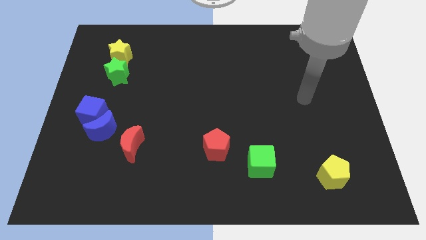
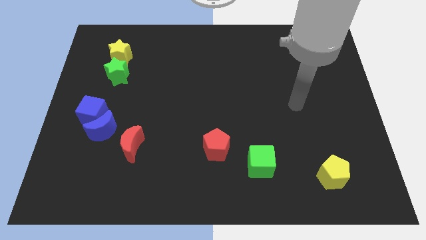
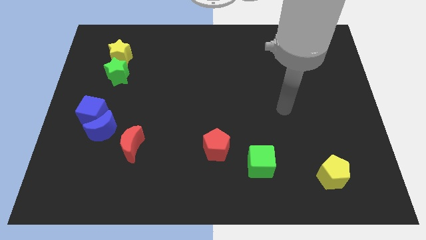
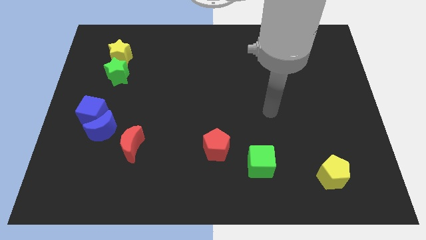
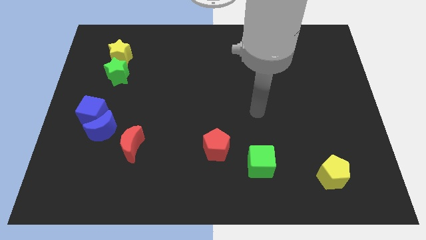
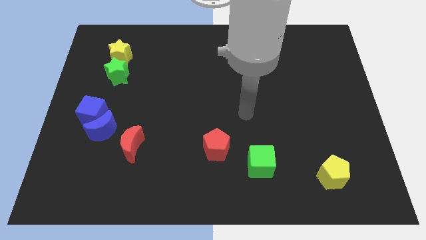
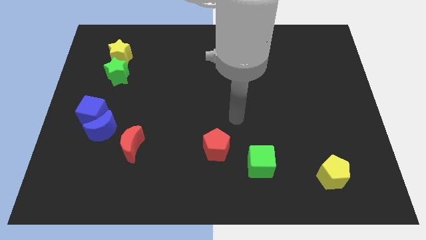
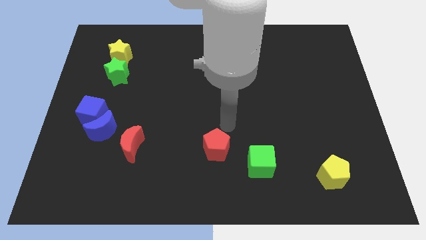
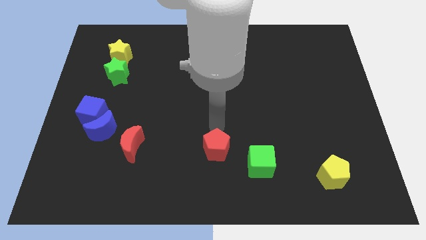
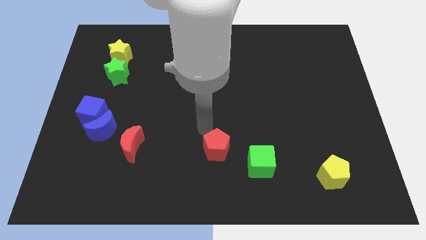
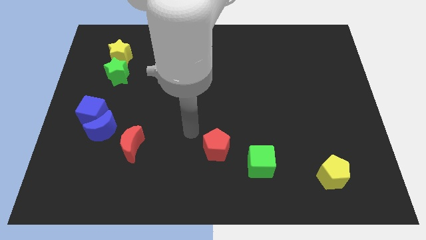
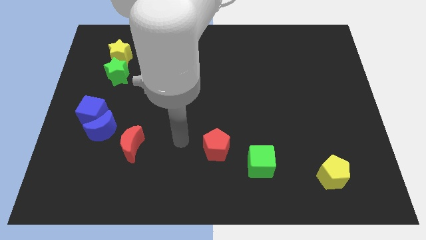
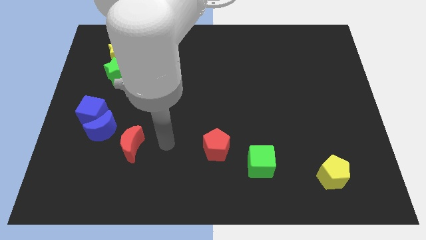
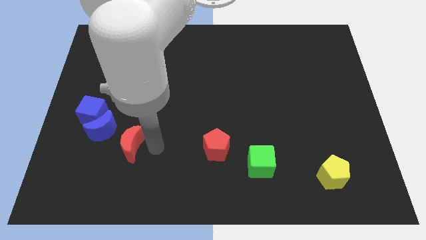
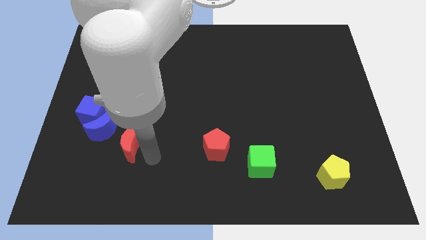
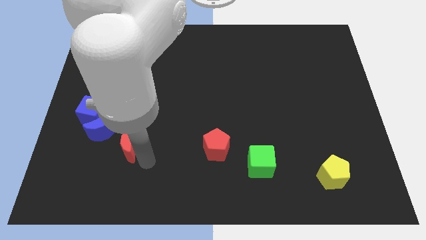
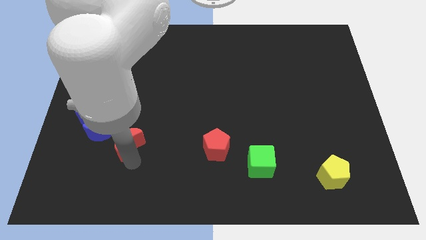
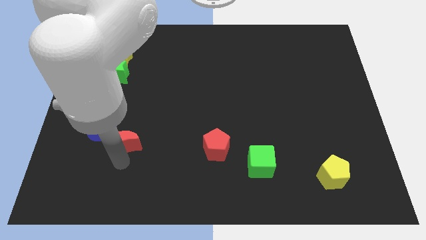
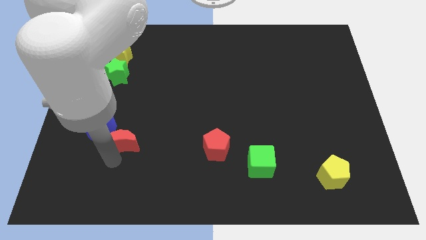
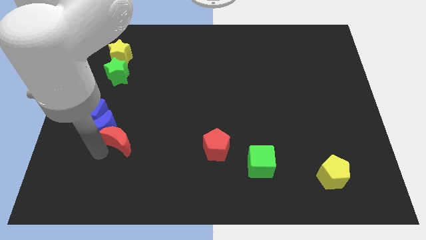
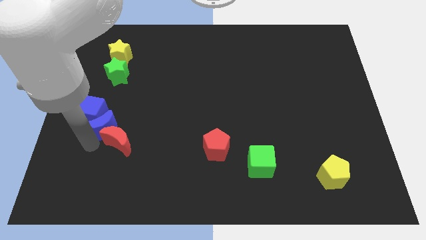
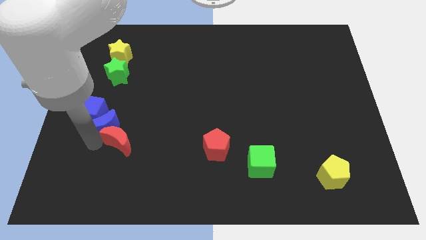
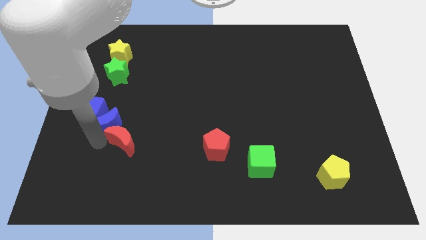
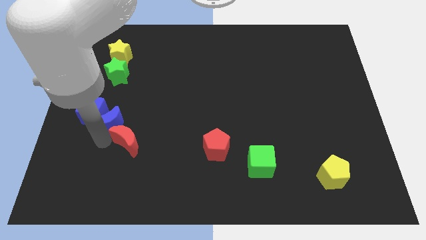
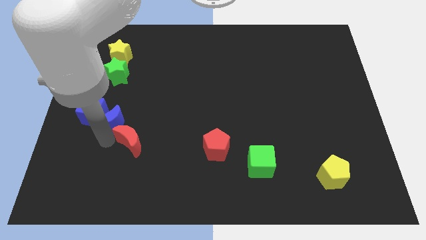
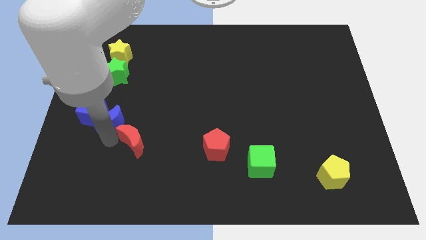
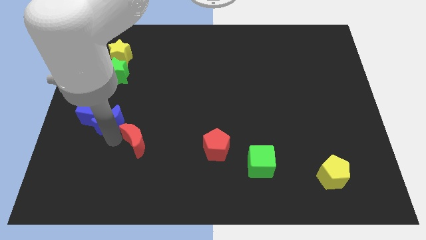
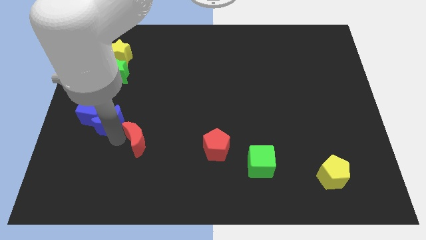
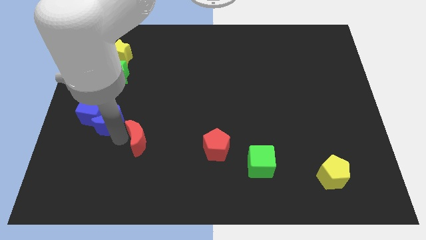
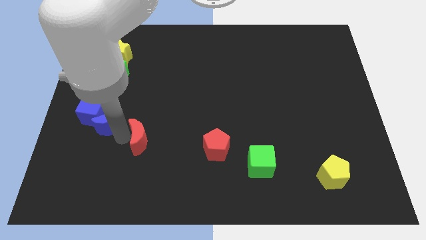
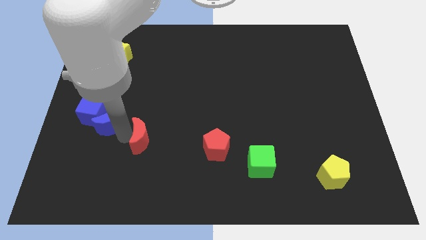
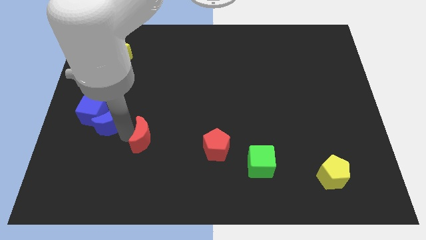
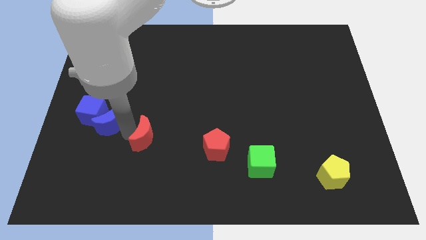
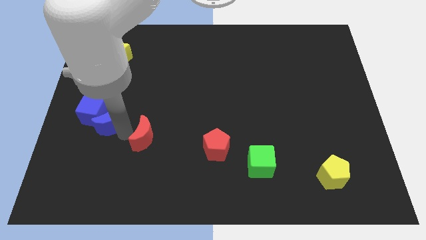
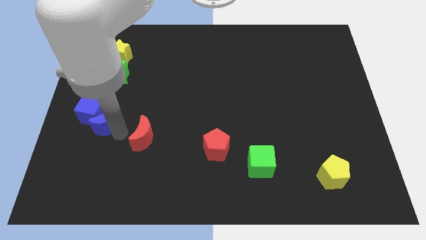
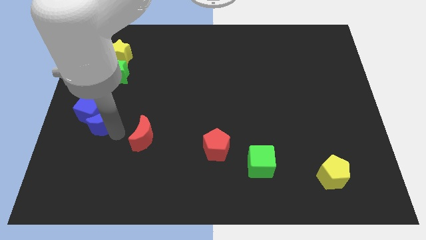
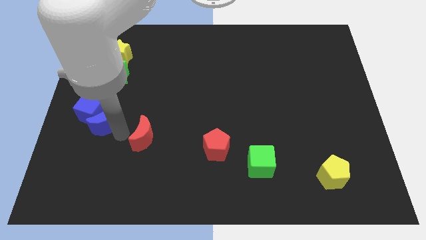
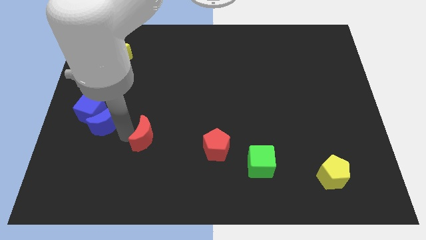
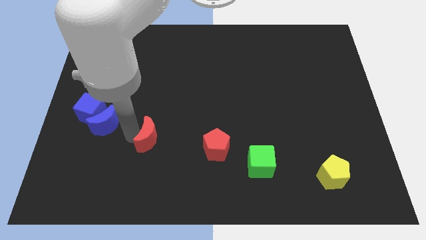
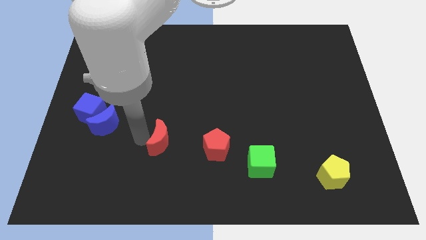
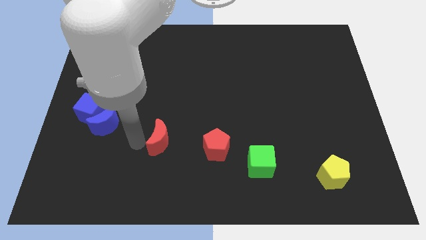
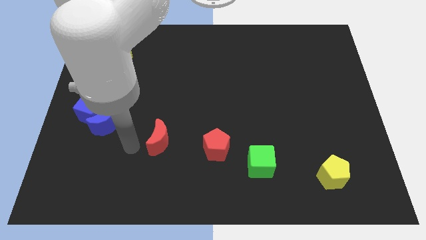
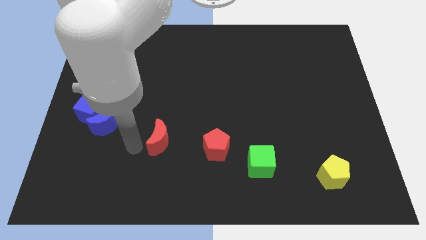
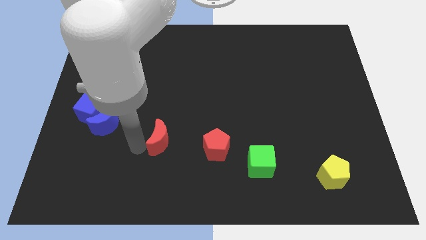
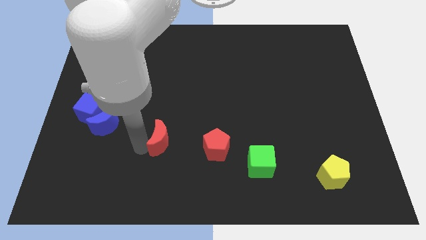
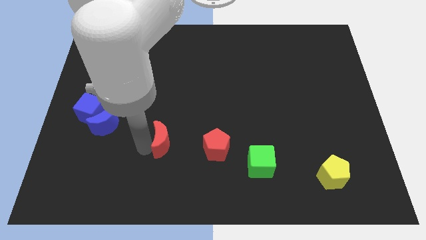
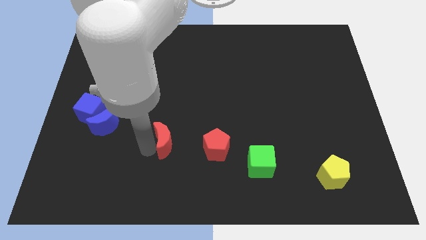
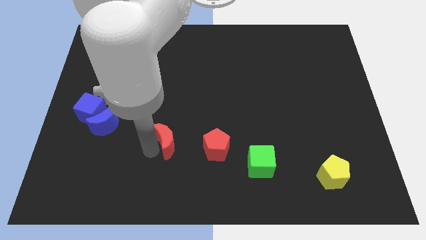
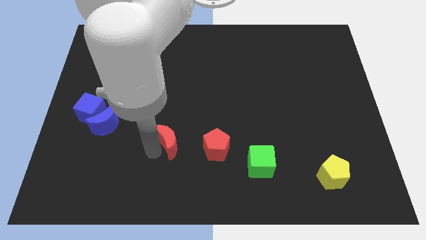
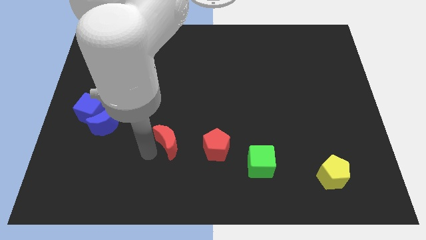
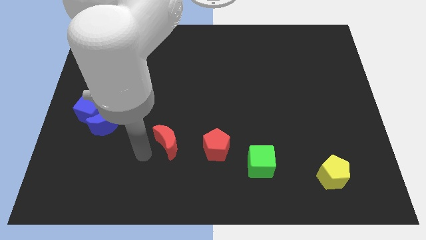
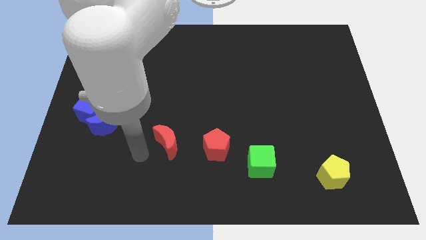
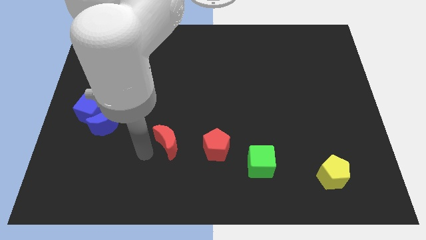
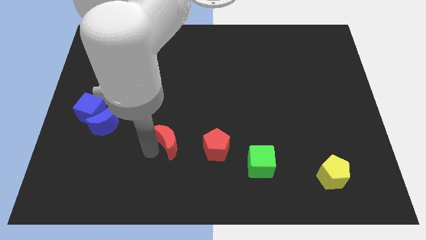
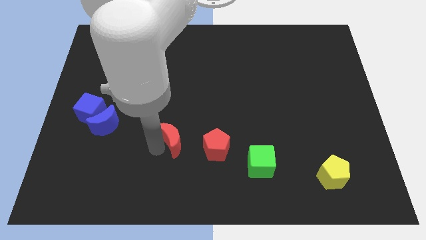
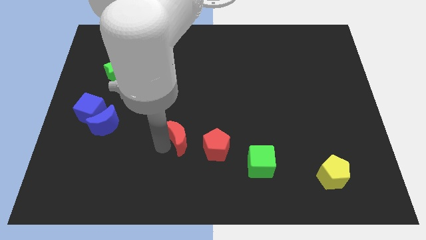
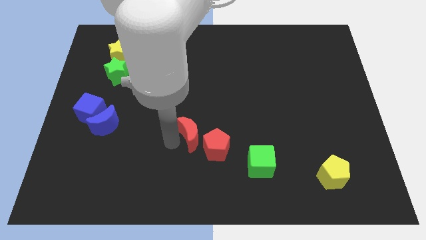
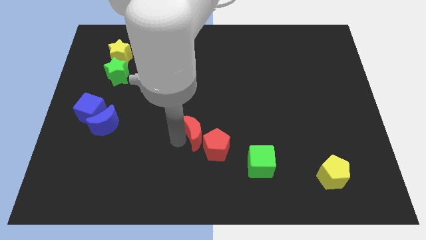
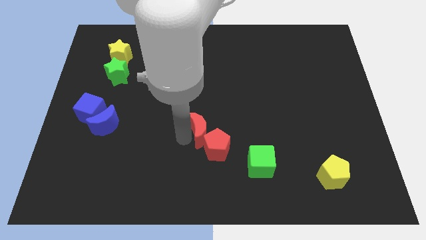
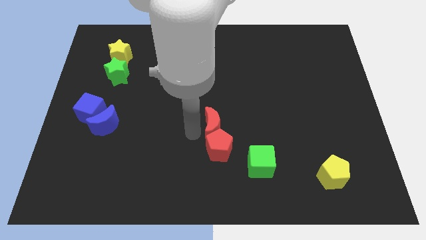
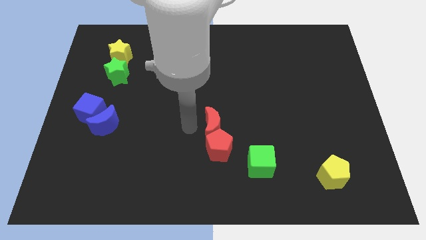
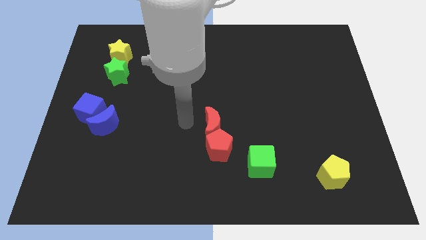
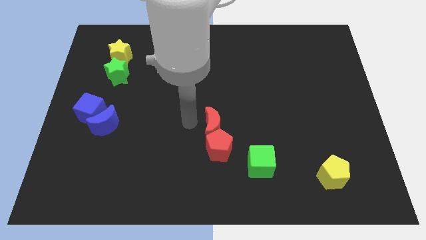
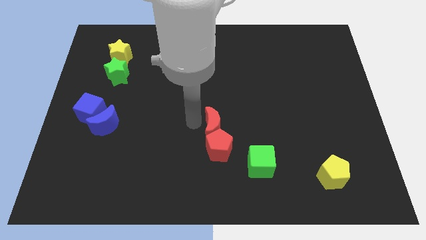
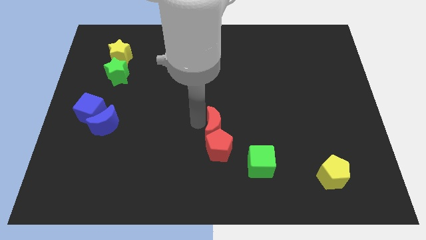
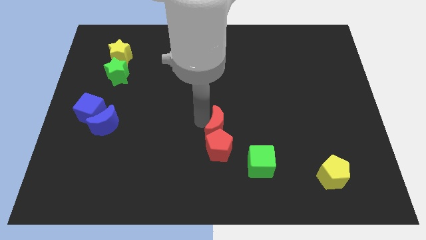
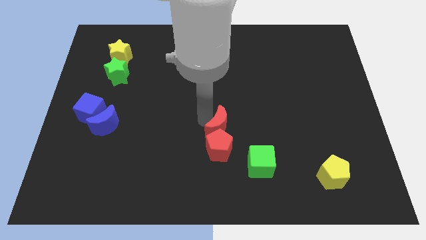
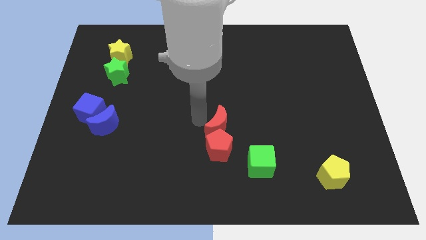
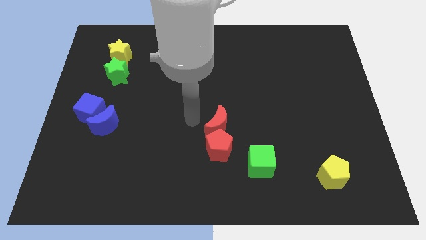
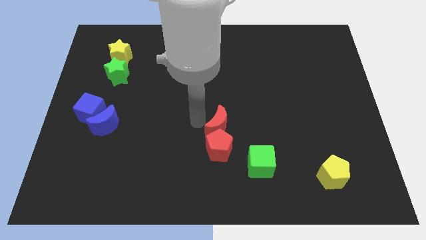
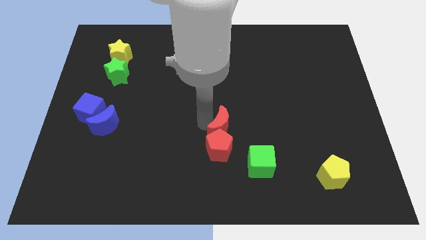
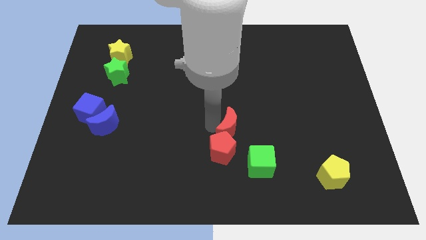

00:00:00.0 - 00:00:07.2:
slide the red moon to the right

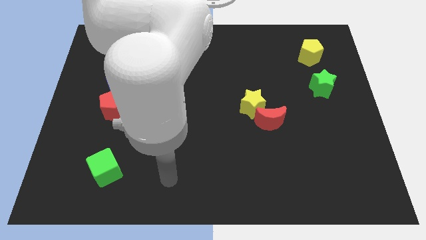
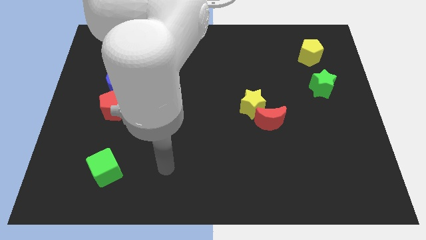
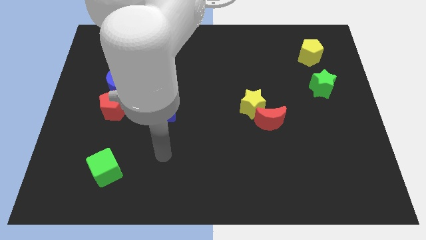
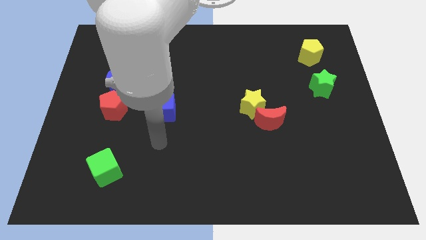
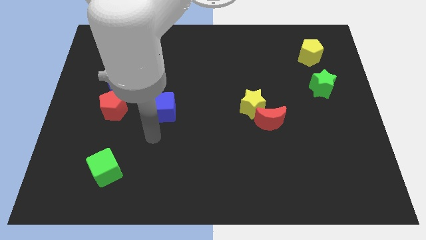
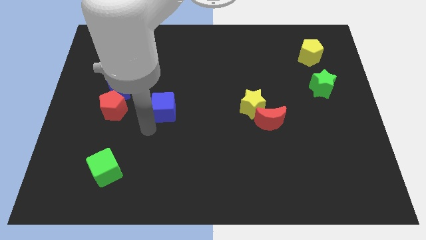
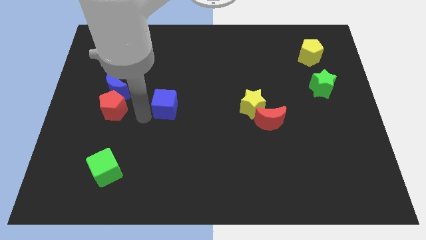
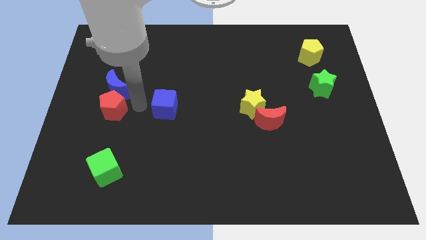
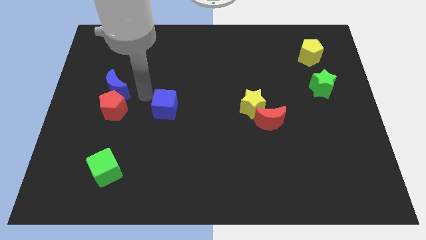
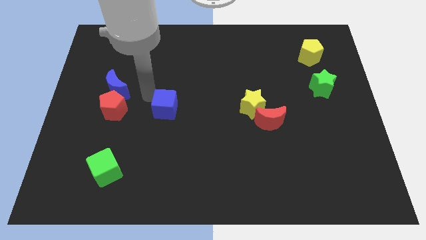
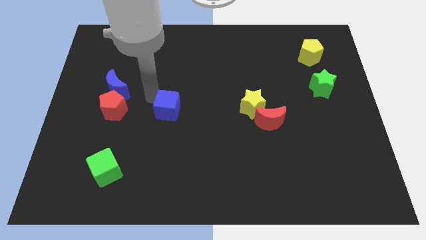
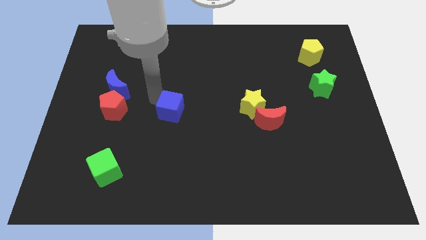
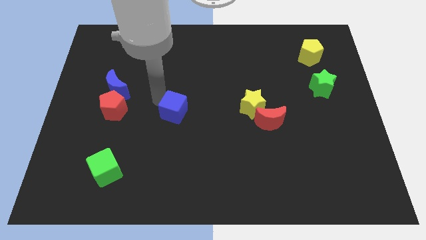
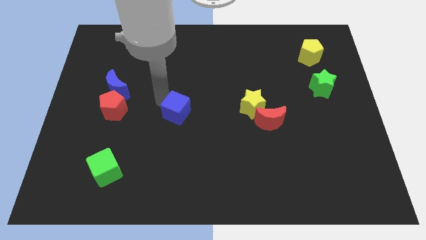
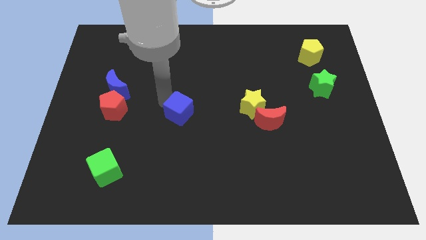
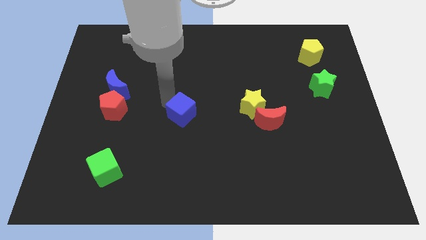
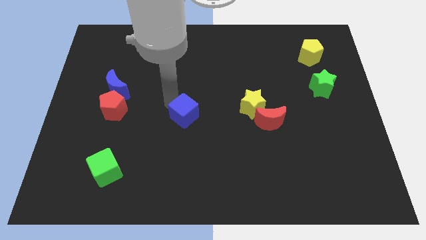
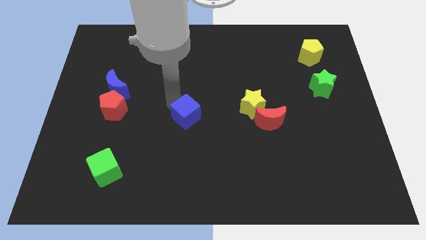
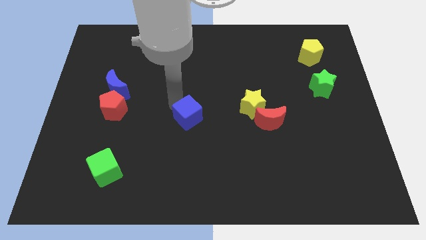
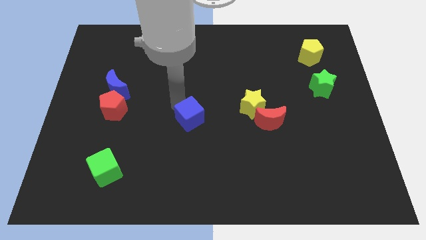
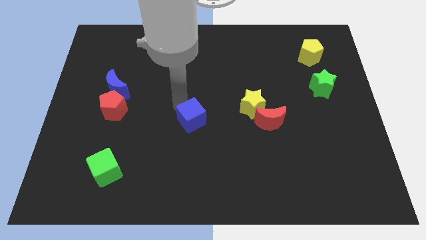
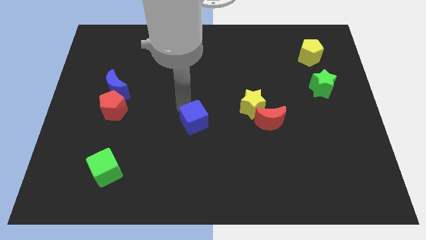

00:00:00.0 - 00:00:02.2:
slightly slide the blue cube down and to the right diagonally
